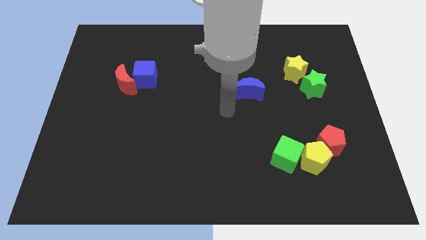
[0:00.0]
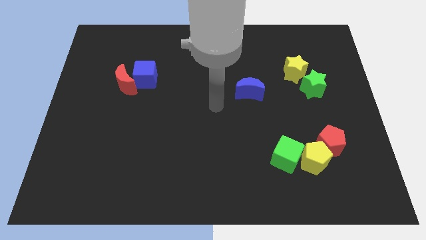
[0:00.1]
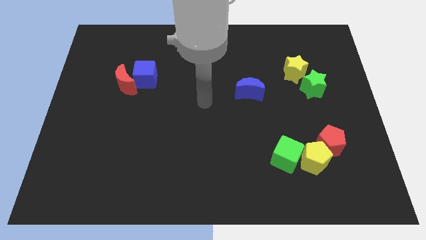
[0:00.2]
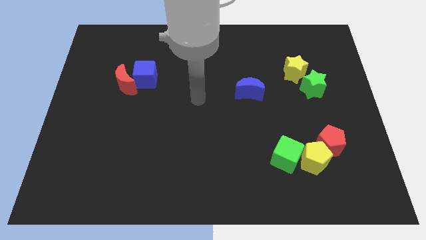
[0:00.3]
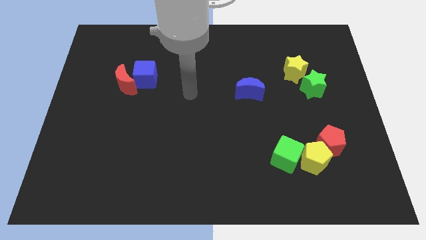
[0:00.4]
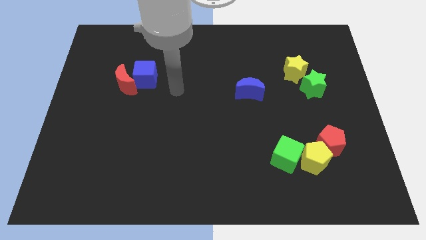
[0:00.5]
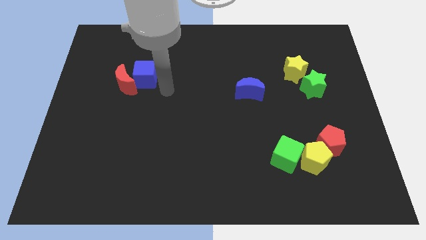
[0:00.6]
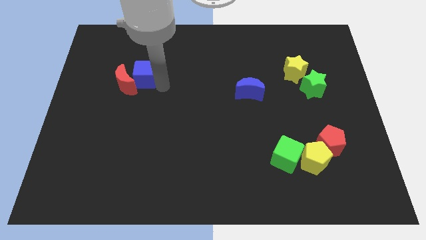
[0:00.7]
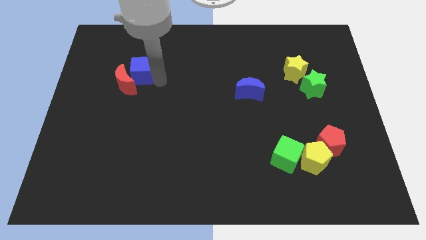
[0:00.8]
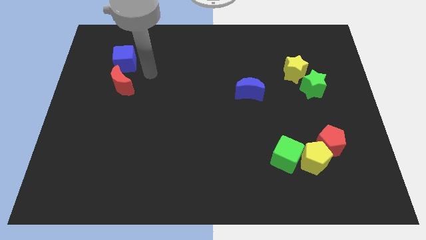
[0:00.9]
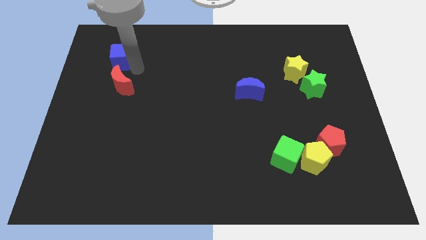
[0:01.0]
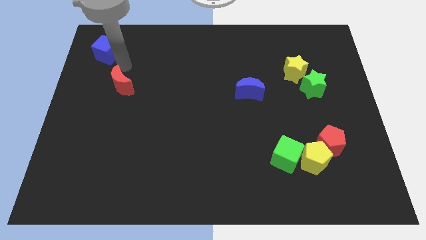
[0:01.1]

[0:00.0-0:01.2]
separate the red moon from the blue cube

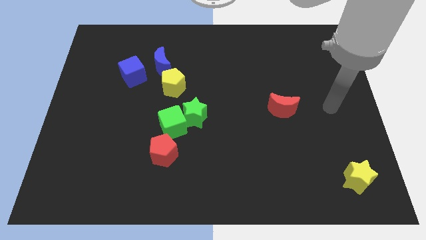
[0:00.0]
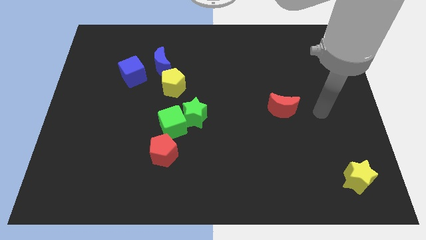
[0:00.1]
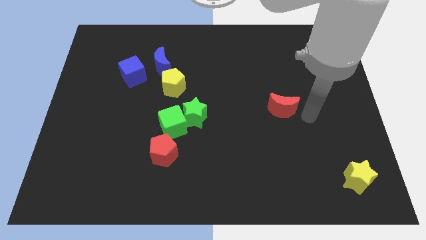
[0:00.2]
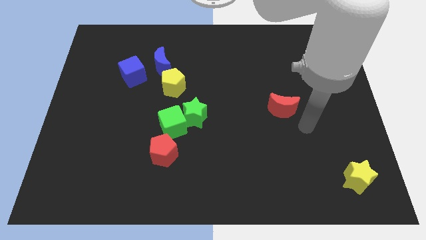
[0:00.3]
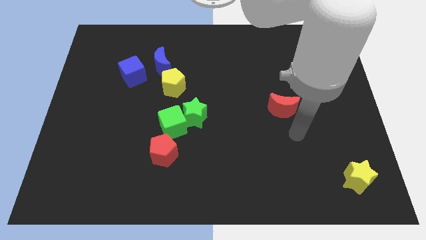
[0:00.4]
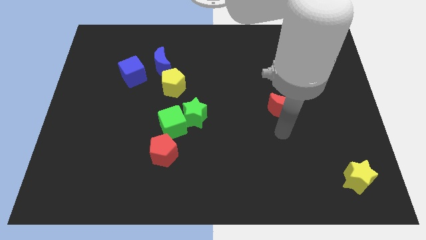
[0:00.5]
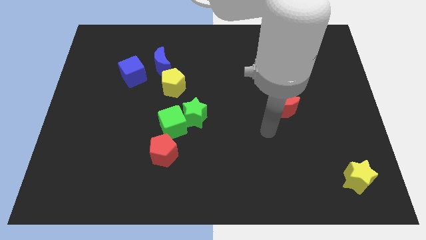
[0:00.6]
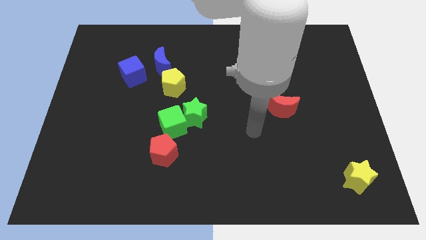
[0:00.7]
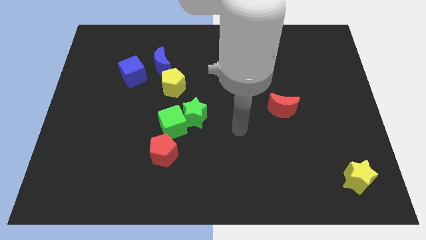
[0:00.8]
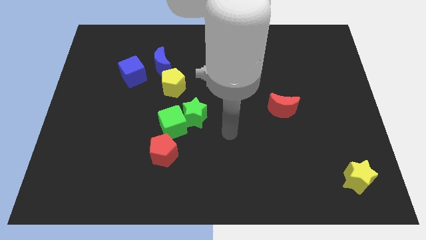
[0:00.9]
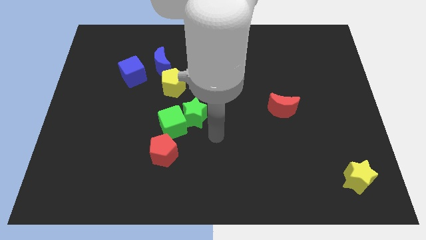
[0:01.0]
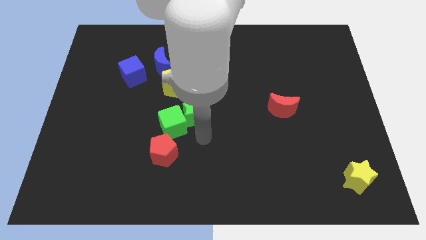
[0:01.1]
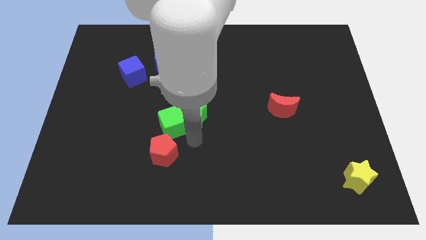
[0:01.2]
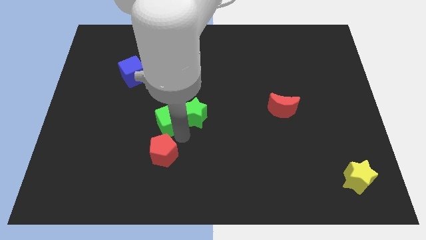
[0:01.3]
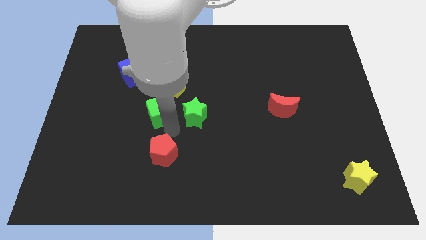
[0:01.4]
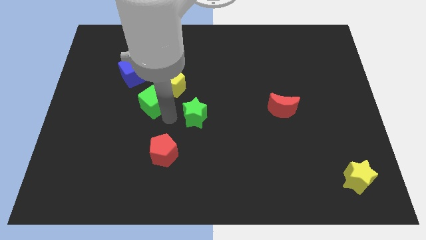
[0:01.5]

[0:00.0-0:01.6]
pull the green star apart from the green cube

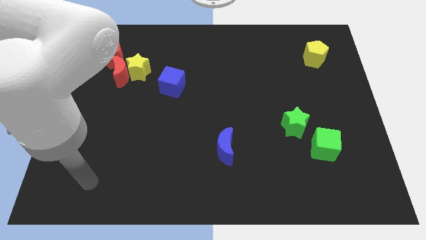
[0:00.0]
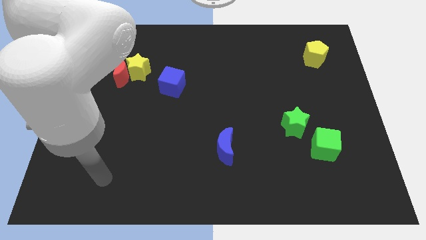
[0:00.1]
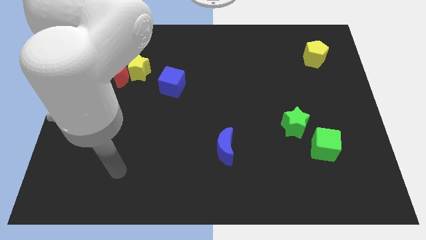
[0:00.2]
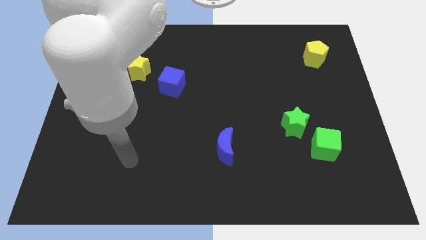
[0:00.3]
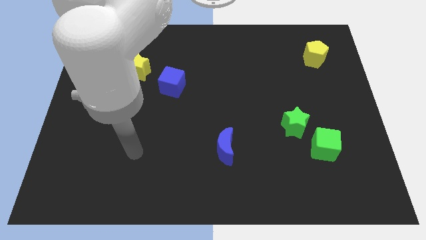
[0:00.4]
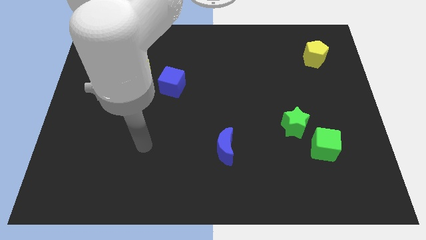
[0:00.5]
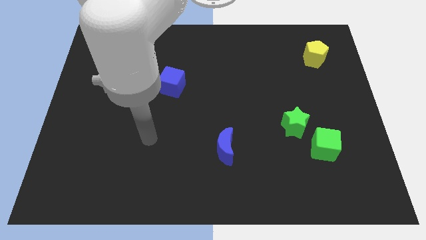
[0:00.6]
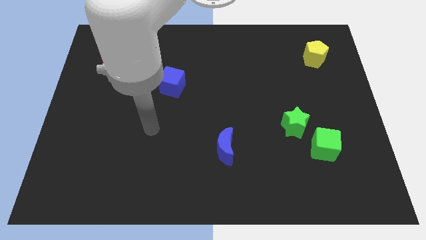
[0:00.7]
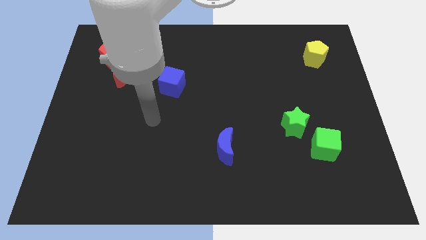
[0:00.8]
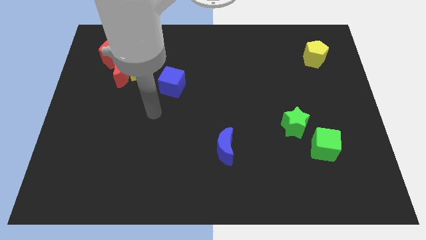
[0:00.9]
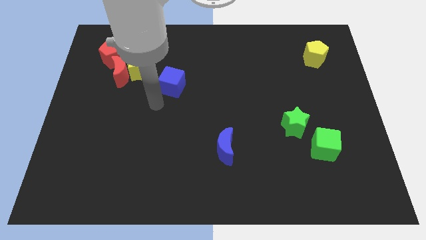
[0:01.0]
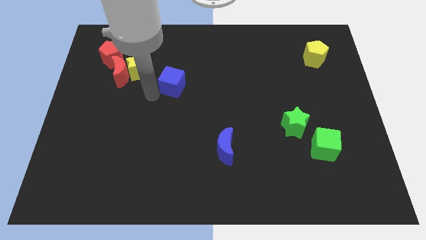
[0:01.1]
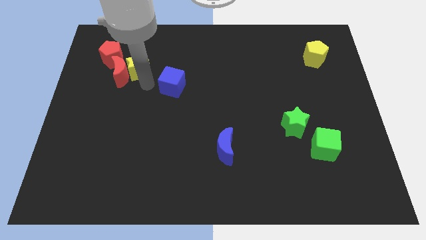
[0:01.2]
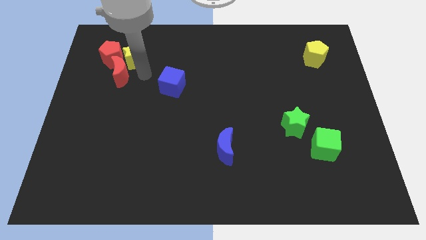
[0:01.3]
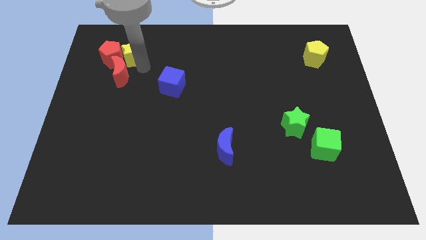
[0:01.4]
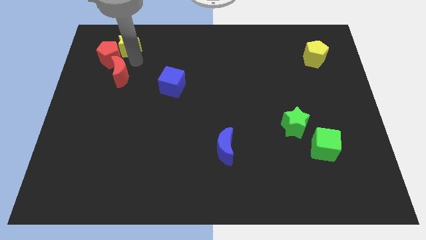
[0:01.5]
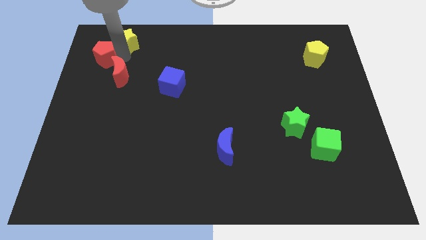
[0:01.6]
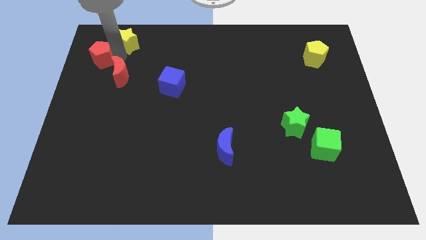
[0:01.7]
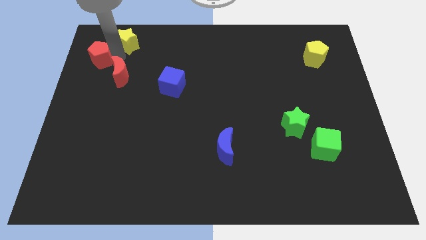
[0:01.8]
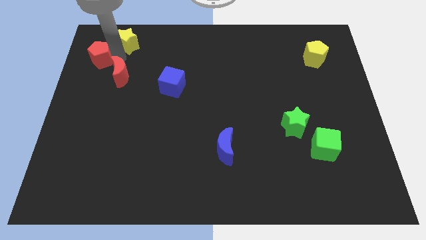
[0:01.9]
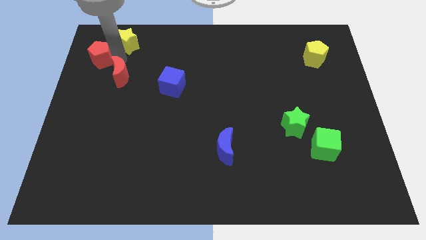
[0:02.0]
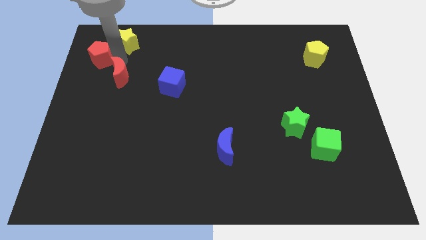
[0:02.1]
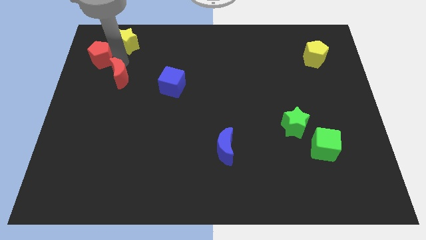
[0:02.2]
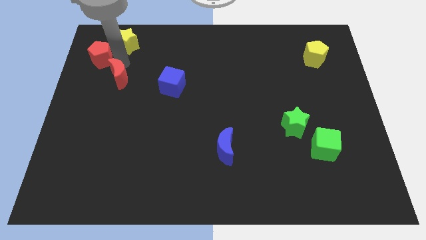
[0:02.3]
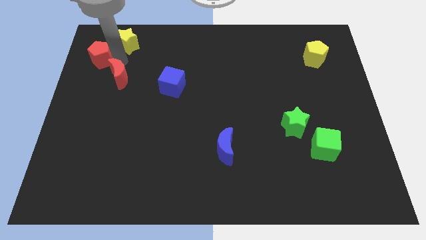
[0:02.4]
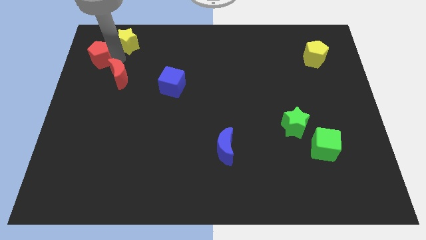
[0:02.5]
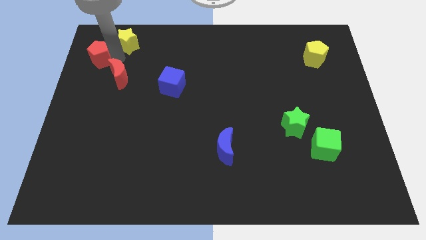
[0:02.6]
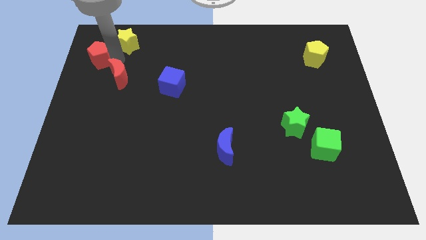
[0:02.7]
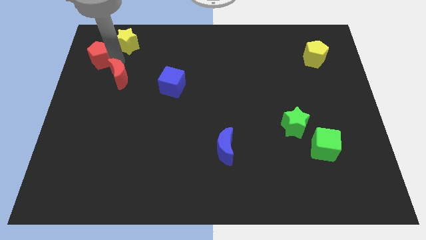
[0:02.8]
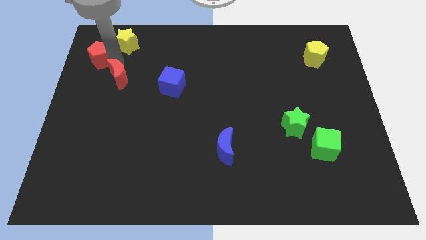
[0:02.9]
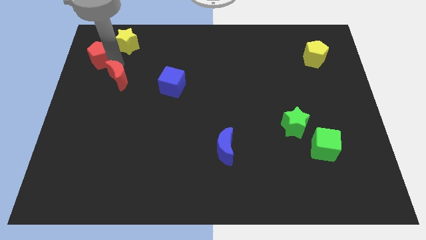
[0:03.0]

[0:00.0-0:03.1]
move the red moon away from the yellow star and red pentagon

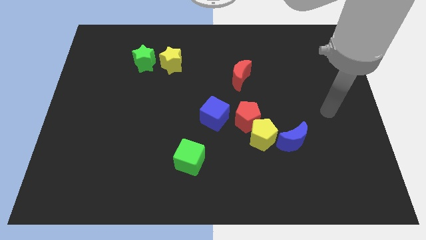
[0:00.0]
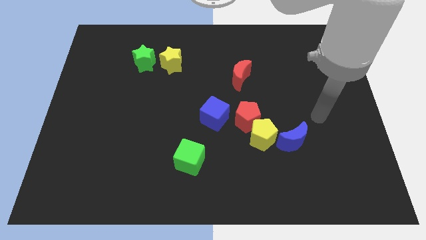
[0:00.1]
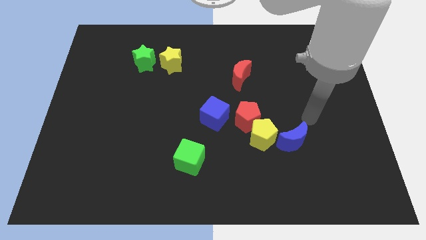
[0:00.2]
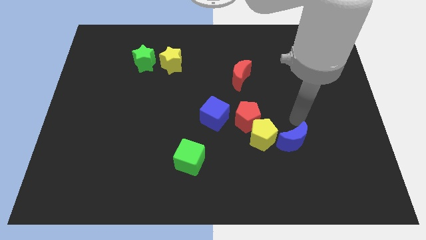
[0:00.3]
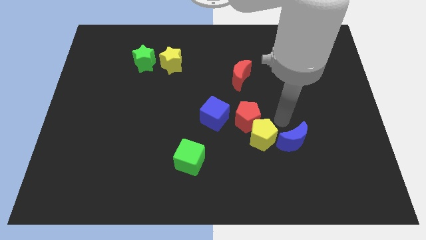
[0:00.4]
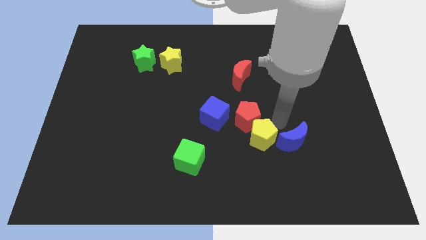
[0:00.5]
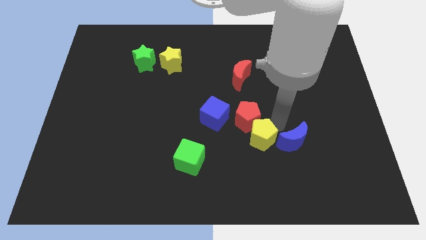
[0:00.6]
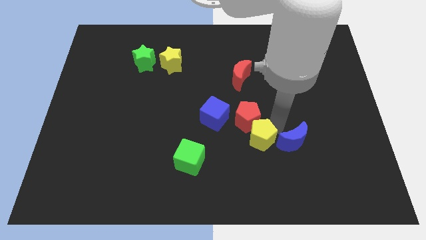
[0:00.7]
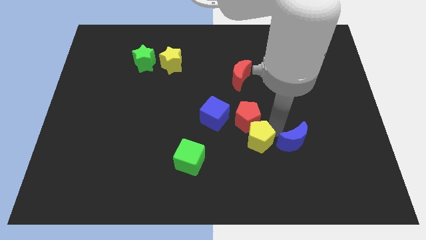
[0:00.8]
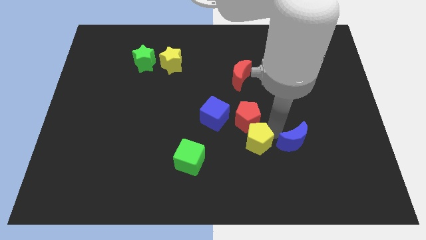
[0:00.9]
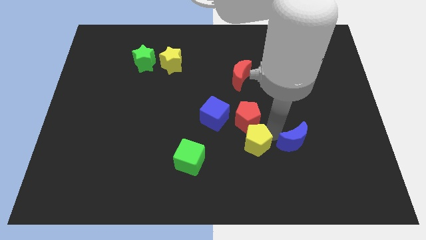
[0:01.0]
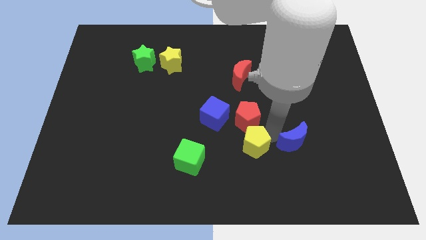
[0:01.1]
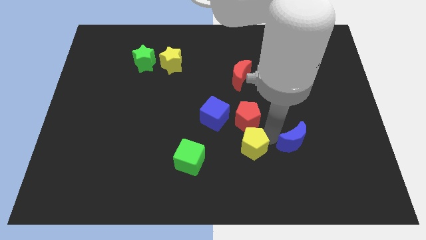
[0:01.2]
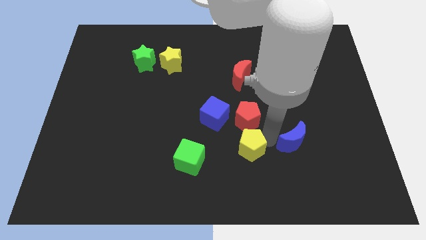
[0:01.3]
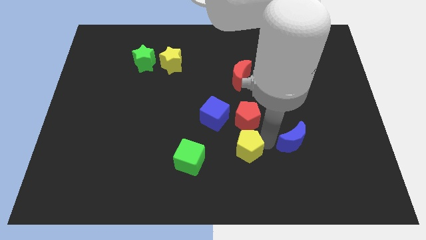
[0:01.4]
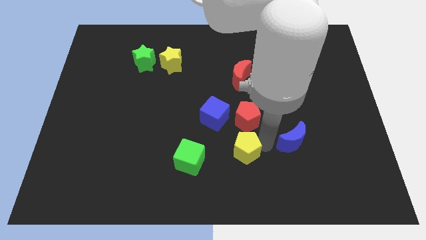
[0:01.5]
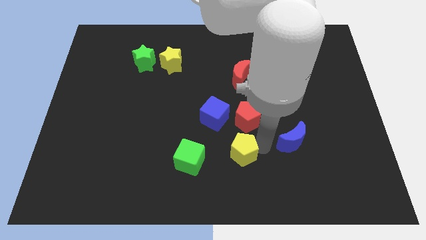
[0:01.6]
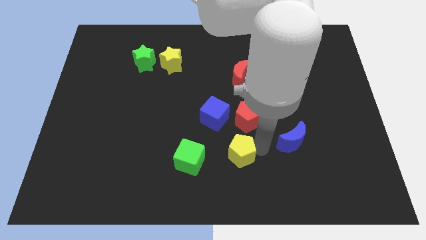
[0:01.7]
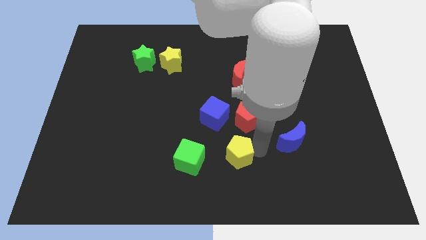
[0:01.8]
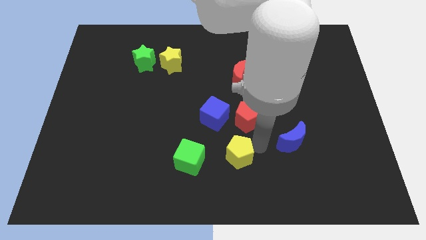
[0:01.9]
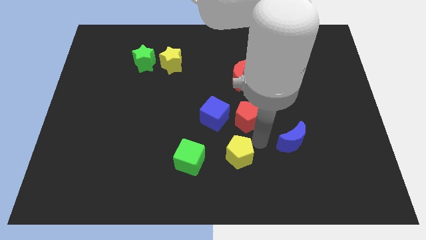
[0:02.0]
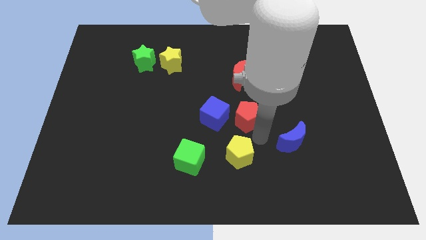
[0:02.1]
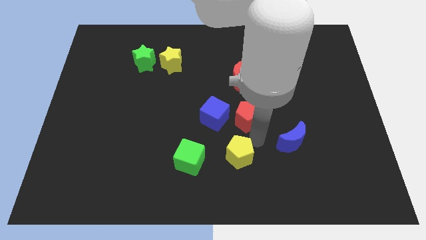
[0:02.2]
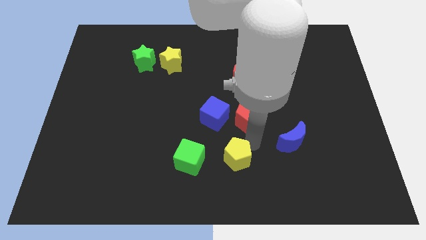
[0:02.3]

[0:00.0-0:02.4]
separate the yellow pentagon from the red pentagon and blue moon

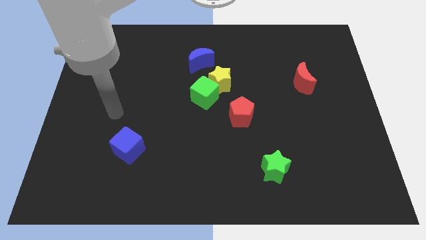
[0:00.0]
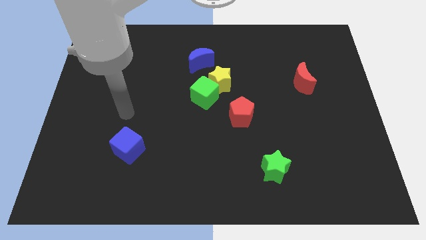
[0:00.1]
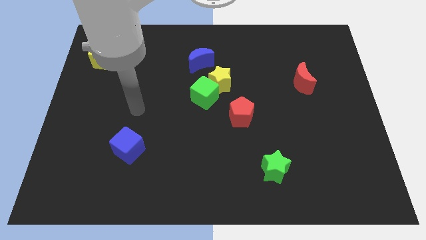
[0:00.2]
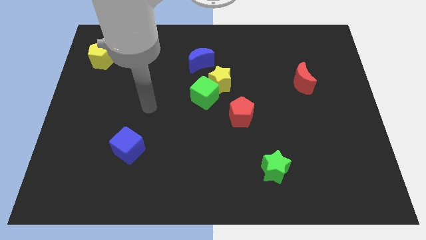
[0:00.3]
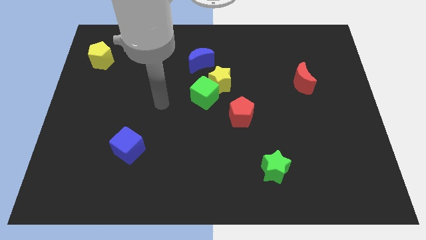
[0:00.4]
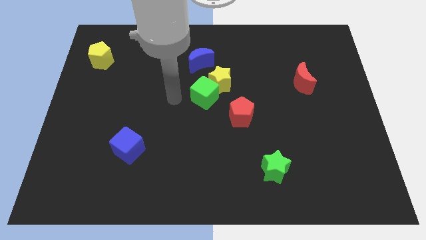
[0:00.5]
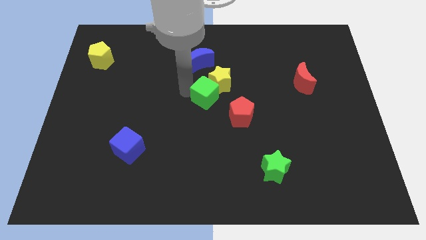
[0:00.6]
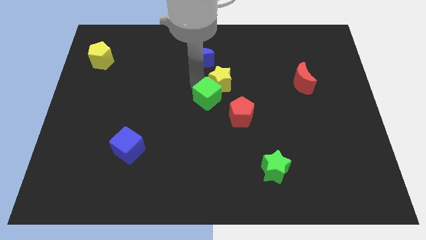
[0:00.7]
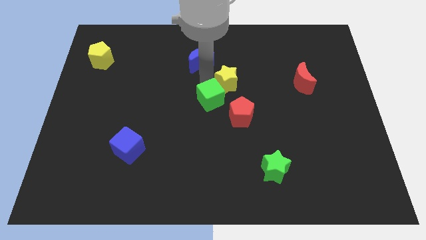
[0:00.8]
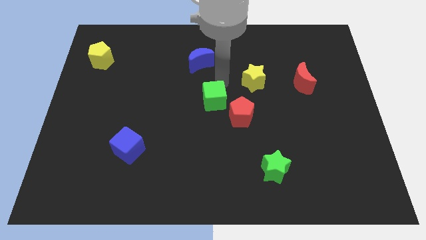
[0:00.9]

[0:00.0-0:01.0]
pull the green cube apart from the yellow star
